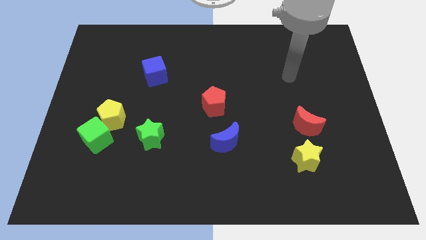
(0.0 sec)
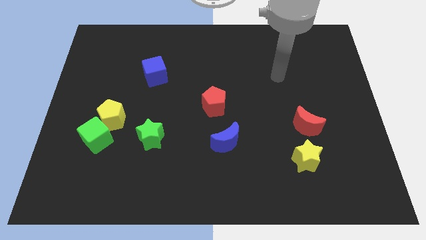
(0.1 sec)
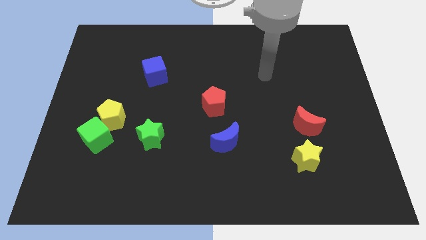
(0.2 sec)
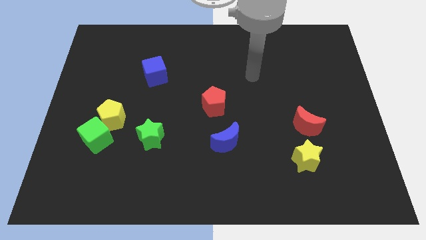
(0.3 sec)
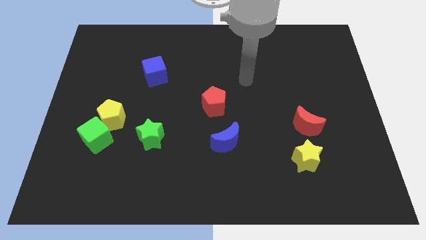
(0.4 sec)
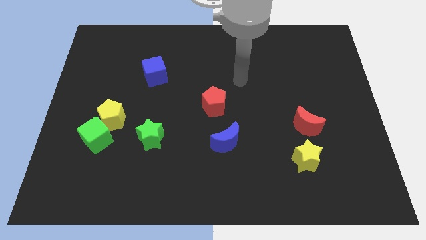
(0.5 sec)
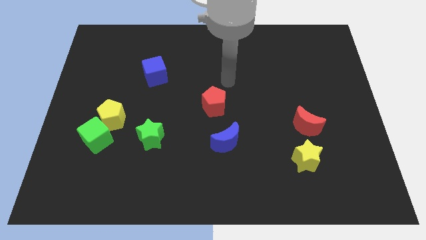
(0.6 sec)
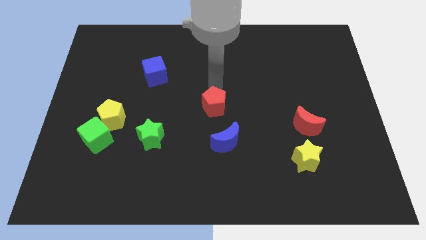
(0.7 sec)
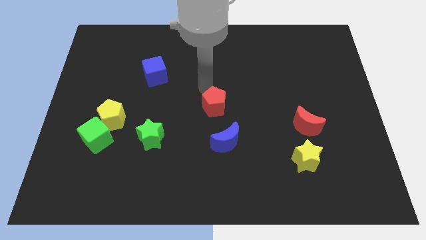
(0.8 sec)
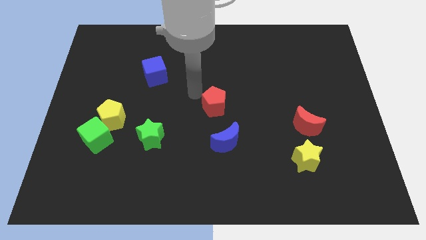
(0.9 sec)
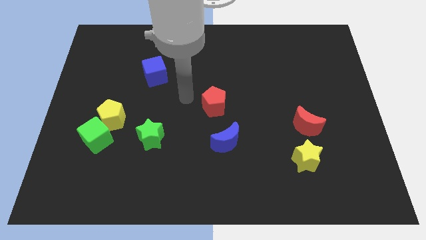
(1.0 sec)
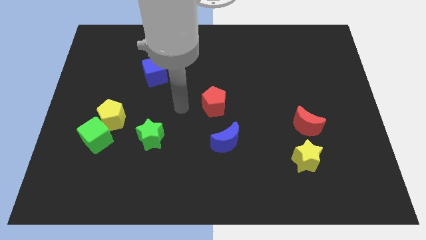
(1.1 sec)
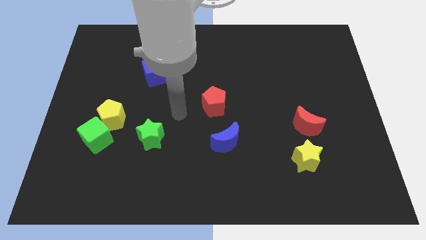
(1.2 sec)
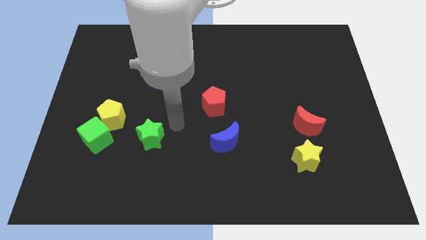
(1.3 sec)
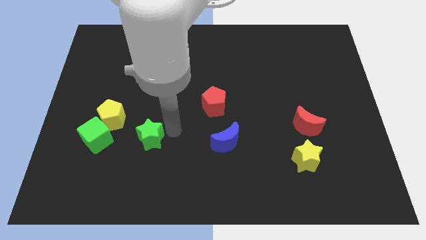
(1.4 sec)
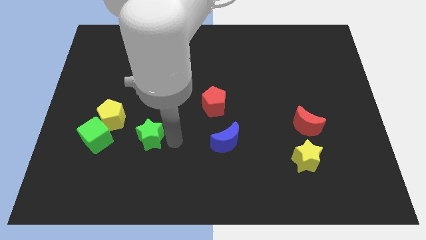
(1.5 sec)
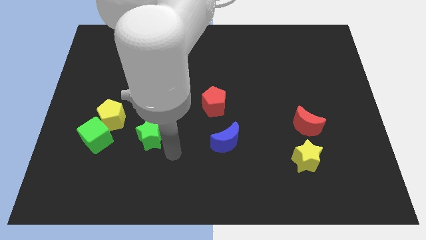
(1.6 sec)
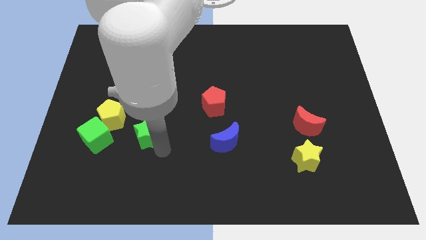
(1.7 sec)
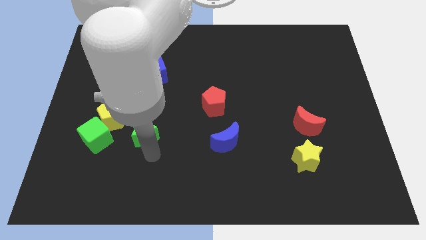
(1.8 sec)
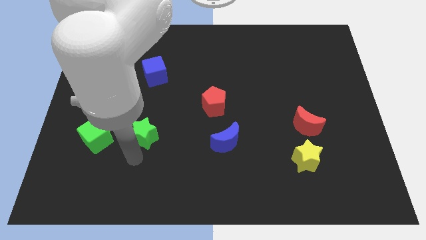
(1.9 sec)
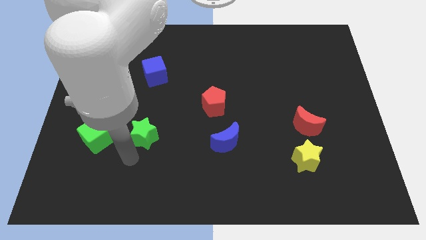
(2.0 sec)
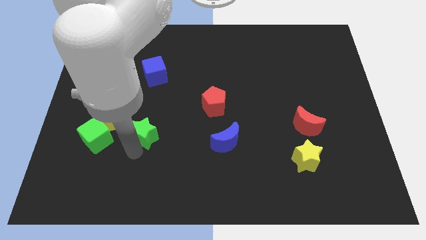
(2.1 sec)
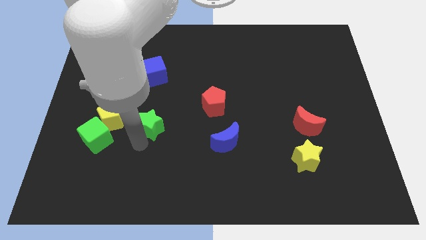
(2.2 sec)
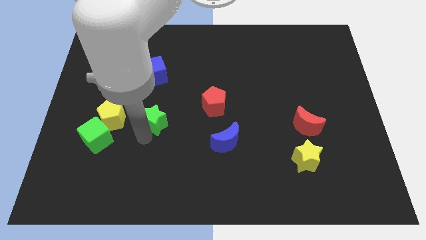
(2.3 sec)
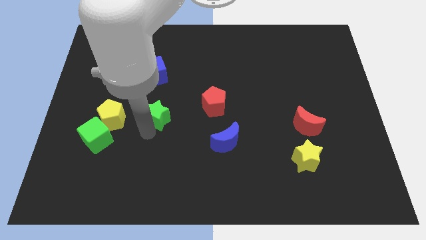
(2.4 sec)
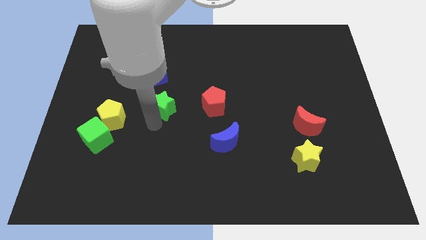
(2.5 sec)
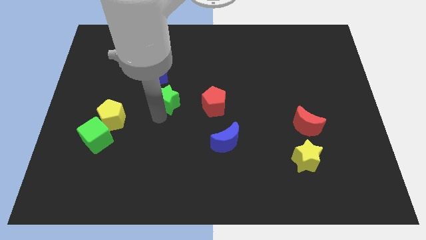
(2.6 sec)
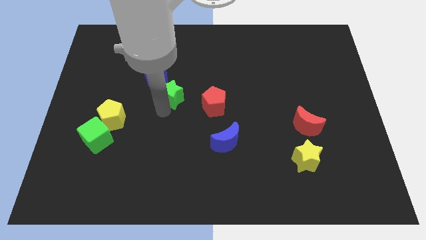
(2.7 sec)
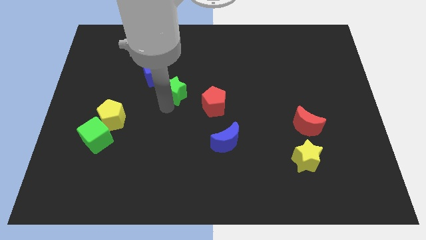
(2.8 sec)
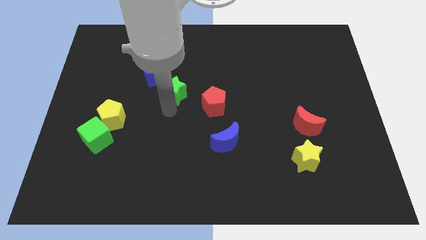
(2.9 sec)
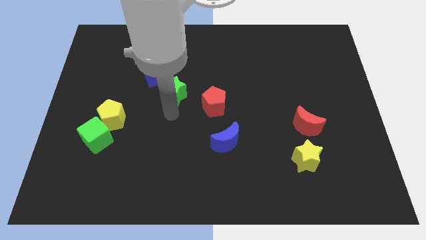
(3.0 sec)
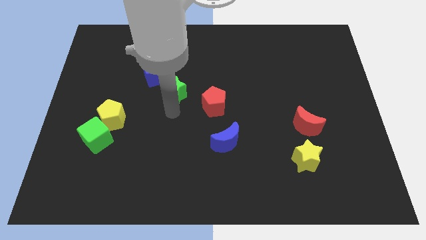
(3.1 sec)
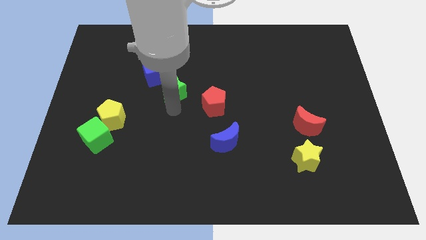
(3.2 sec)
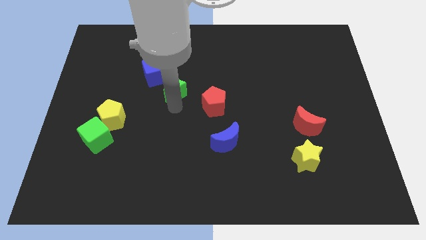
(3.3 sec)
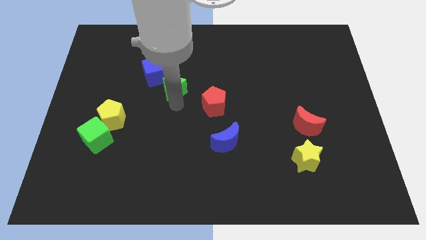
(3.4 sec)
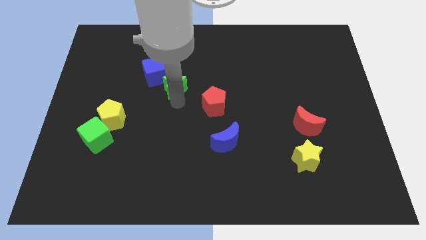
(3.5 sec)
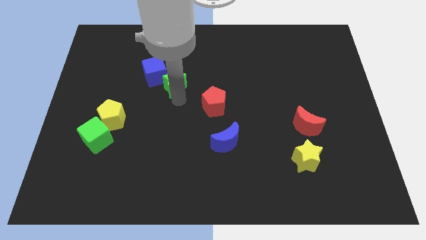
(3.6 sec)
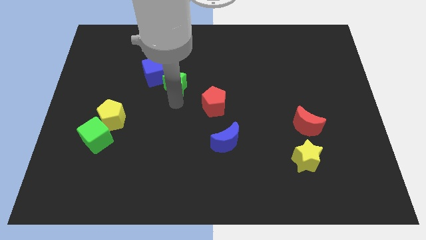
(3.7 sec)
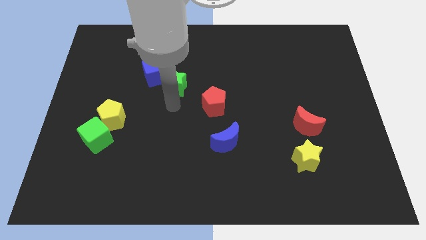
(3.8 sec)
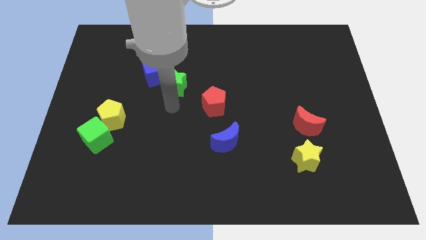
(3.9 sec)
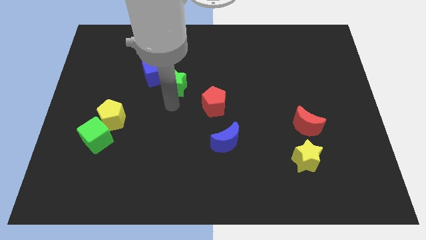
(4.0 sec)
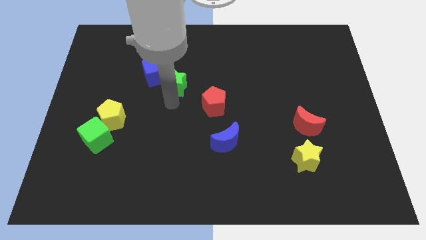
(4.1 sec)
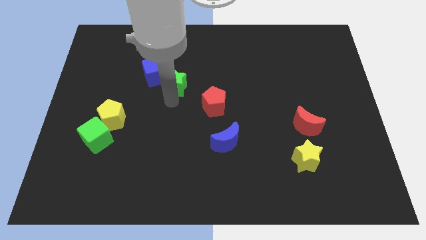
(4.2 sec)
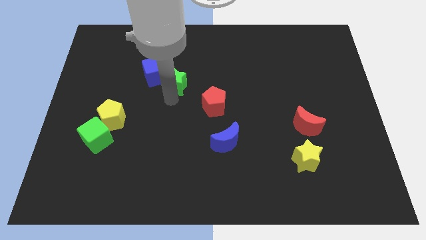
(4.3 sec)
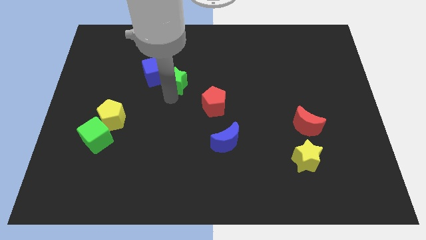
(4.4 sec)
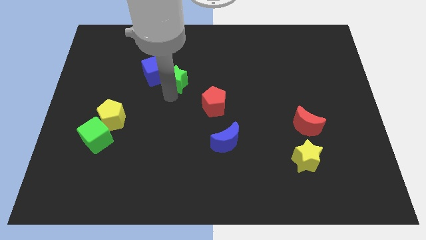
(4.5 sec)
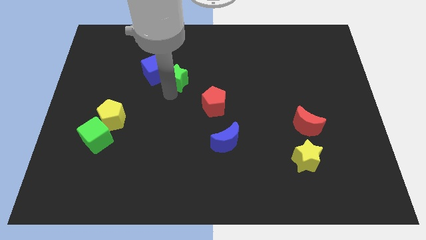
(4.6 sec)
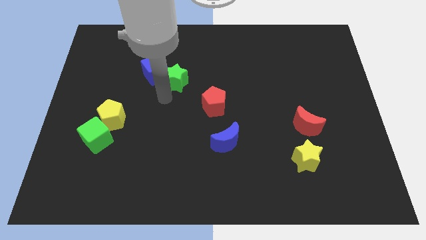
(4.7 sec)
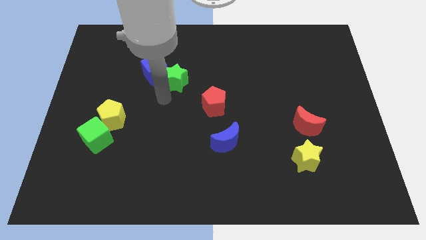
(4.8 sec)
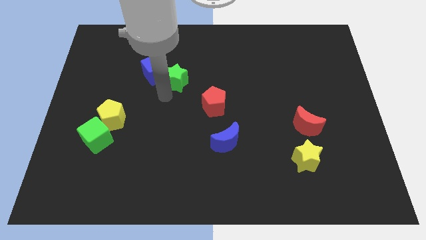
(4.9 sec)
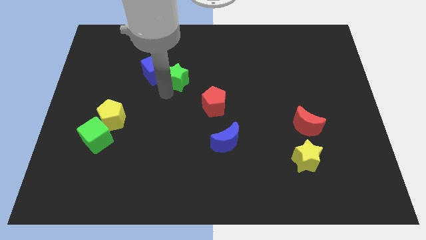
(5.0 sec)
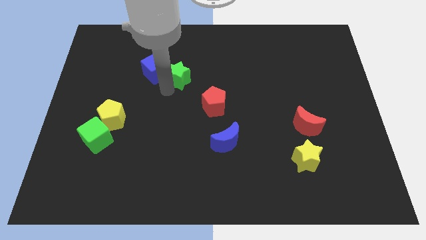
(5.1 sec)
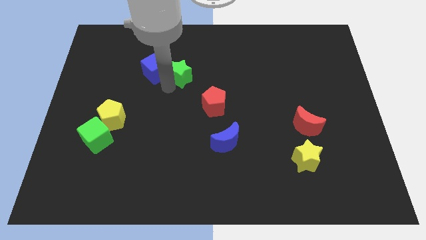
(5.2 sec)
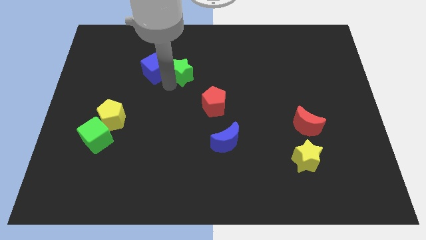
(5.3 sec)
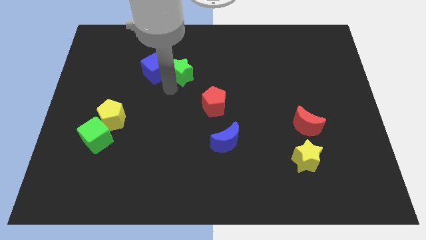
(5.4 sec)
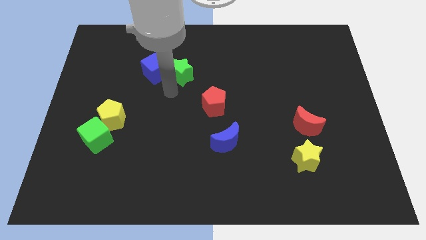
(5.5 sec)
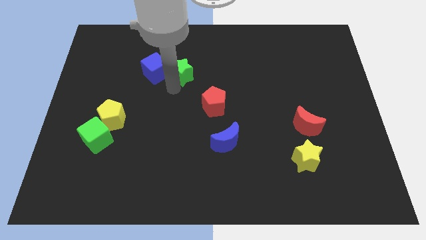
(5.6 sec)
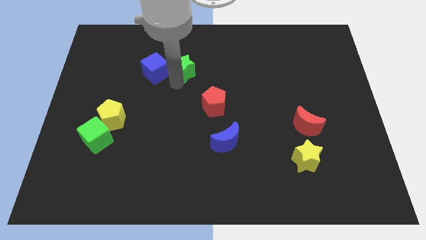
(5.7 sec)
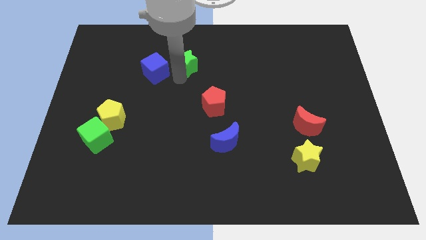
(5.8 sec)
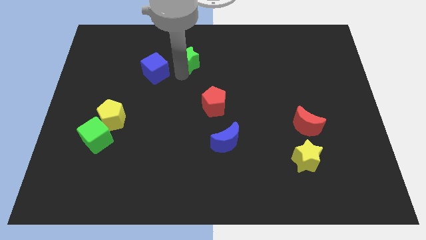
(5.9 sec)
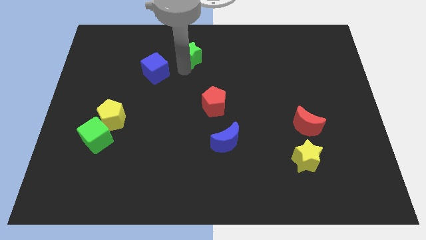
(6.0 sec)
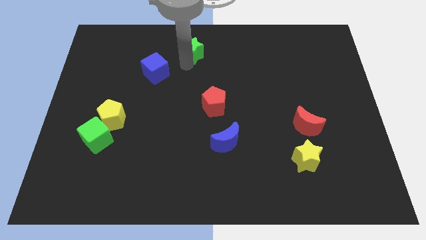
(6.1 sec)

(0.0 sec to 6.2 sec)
slide the green star to the top
